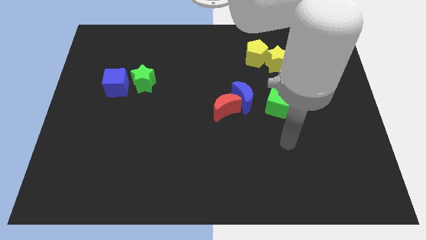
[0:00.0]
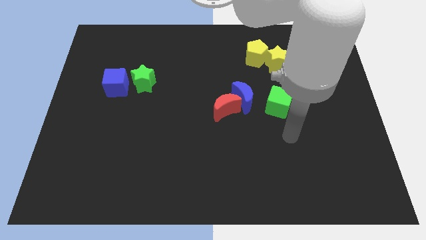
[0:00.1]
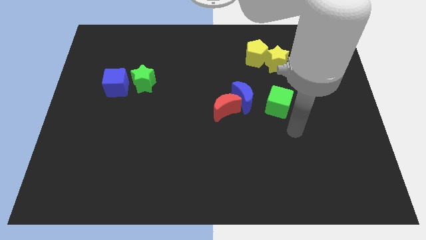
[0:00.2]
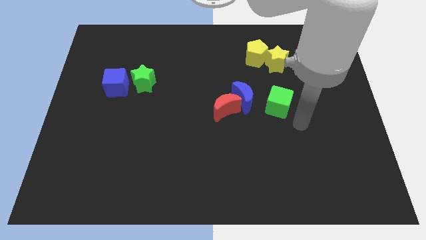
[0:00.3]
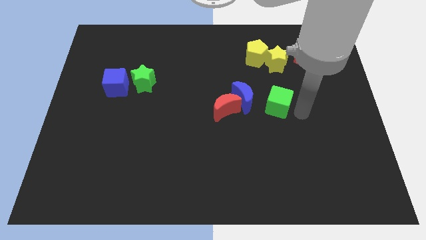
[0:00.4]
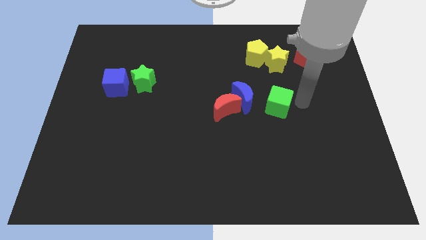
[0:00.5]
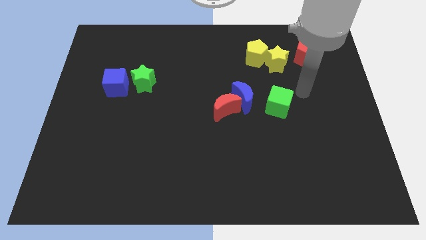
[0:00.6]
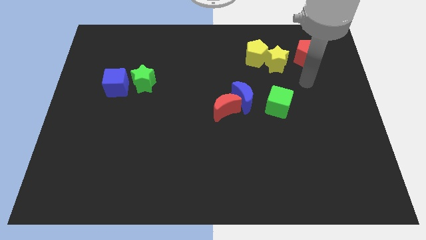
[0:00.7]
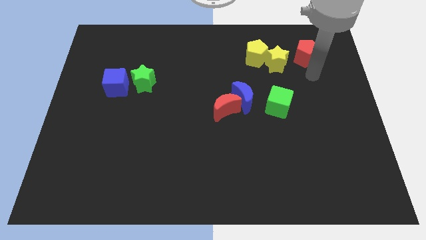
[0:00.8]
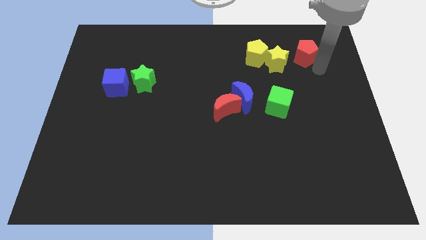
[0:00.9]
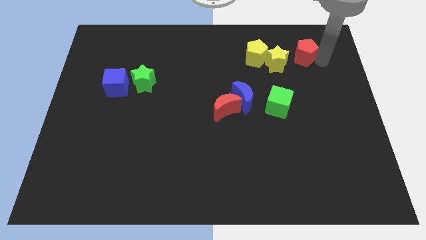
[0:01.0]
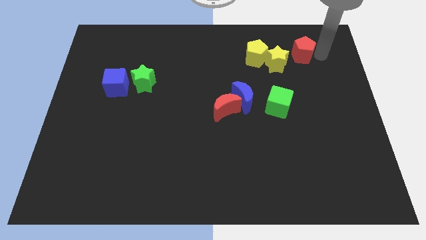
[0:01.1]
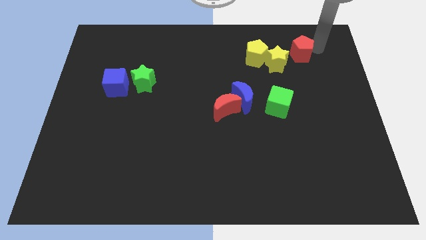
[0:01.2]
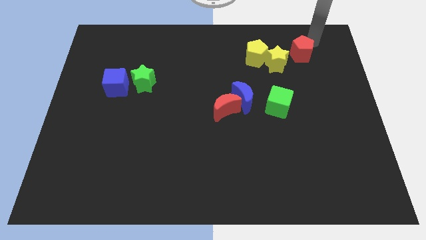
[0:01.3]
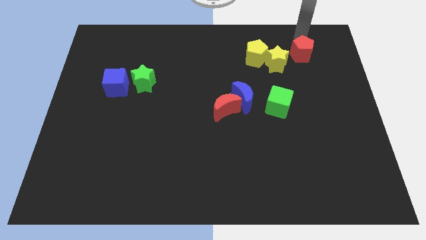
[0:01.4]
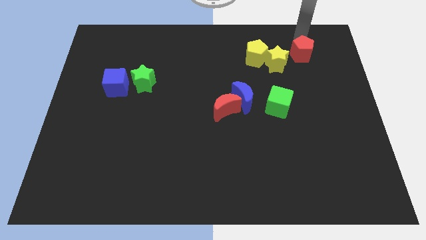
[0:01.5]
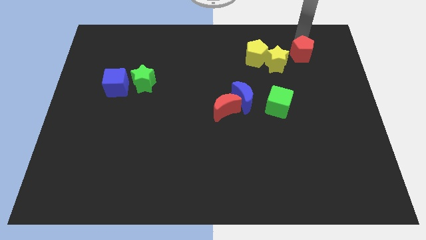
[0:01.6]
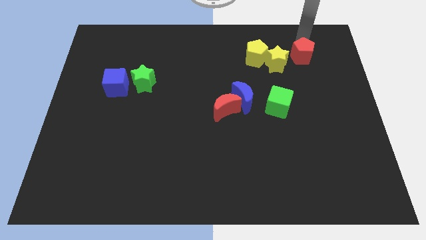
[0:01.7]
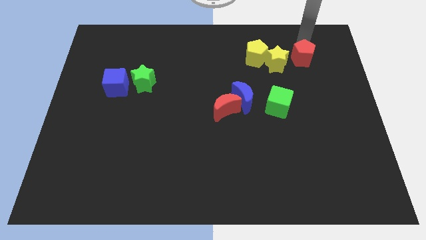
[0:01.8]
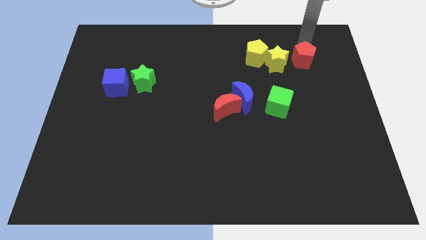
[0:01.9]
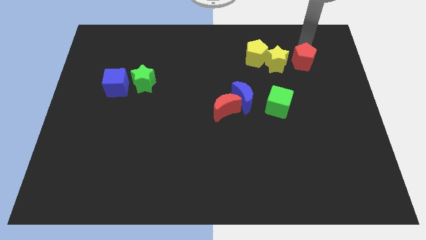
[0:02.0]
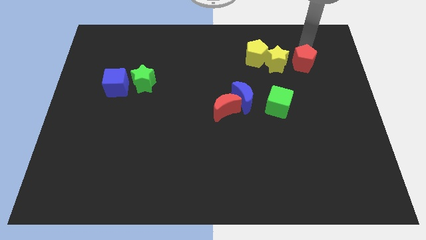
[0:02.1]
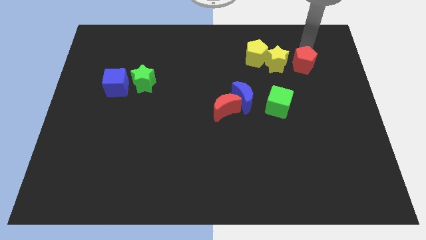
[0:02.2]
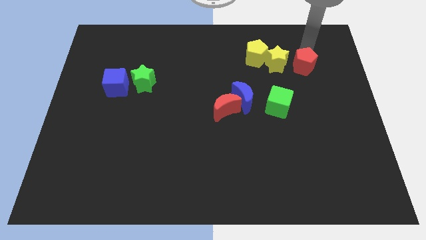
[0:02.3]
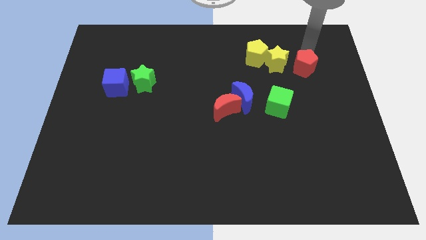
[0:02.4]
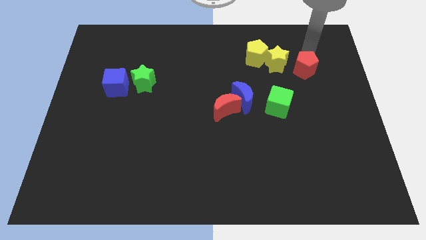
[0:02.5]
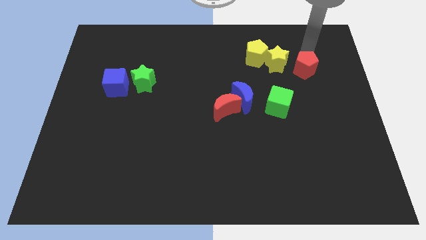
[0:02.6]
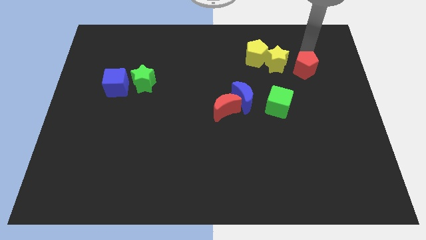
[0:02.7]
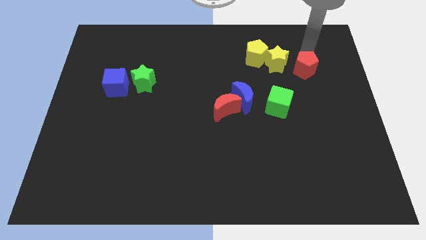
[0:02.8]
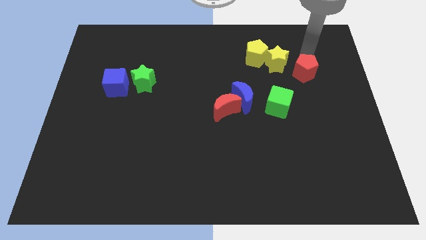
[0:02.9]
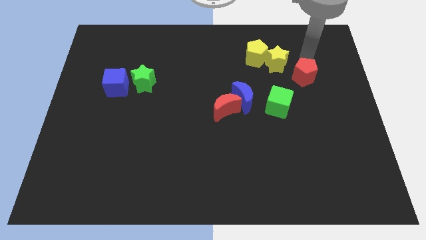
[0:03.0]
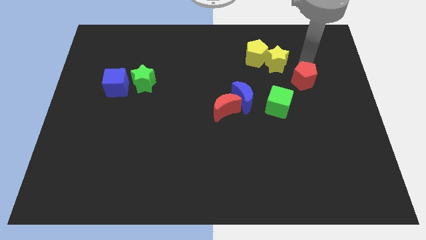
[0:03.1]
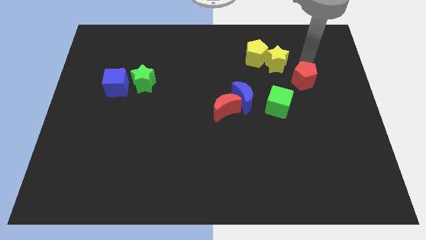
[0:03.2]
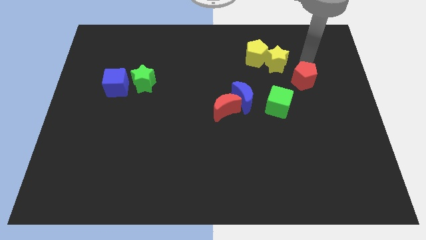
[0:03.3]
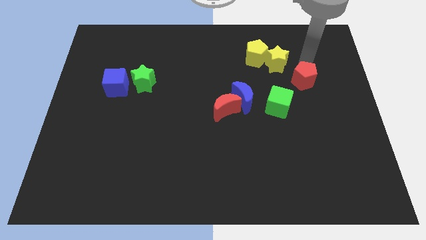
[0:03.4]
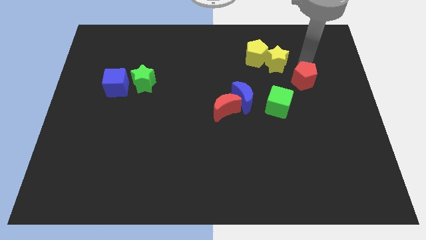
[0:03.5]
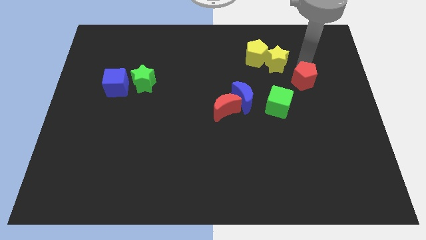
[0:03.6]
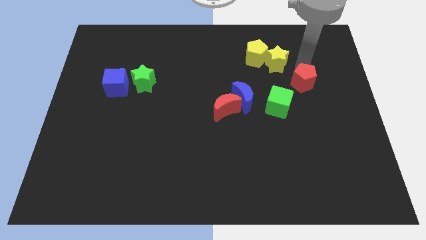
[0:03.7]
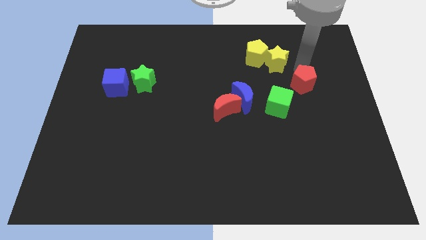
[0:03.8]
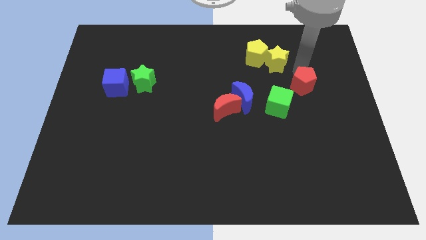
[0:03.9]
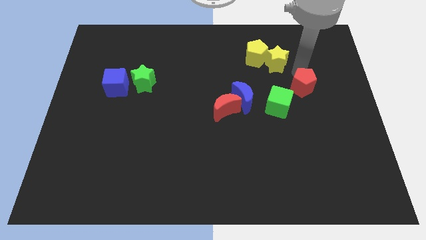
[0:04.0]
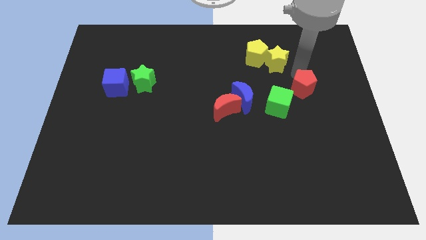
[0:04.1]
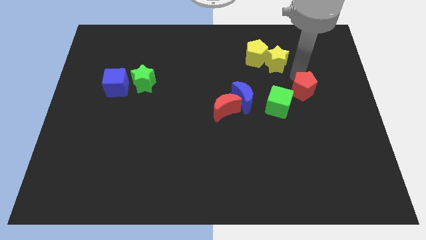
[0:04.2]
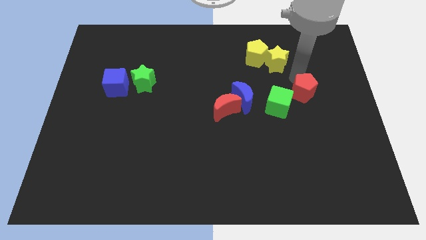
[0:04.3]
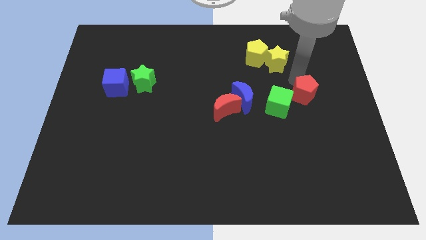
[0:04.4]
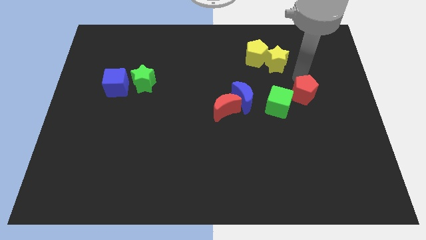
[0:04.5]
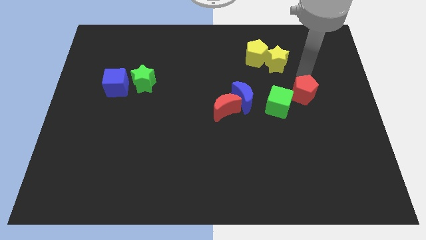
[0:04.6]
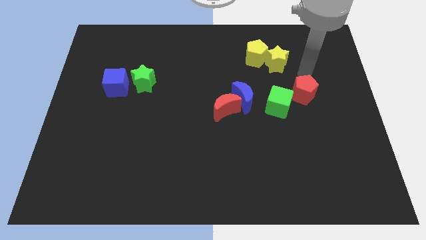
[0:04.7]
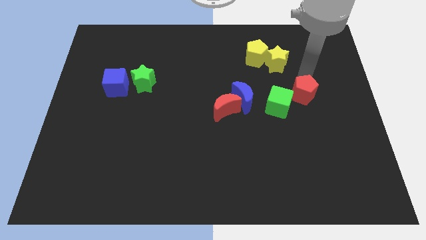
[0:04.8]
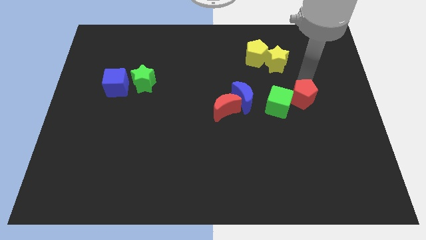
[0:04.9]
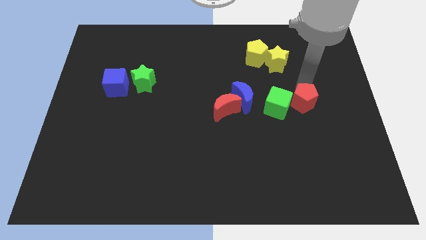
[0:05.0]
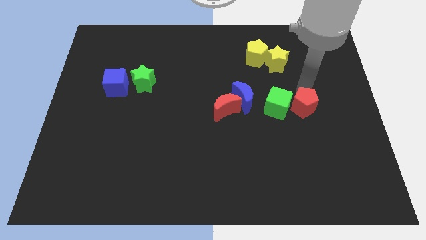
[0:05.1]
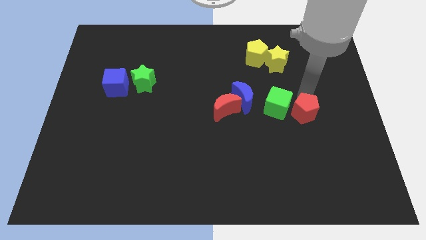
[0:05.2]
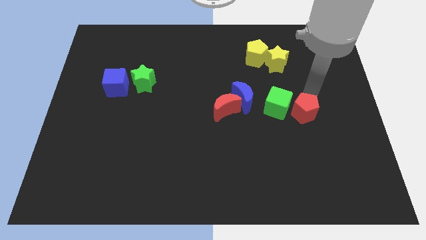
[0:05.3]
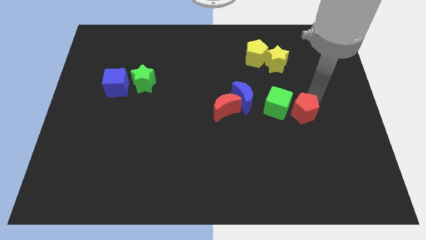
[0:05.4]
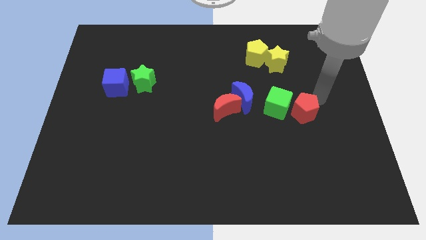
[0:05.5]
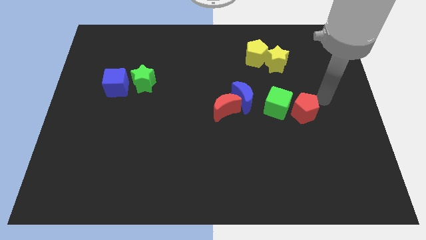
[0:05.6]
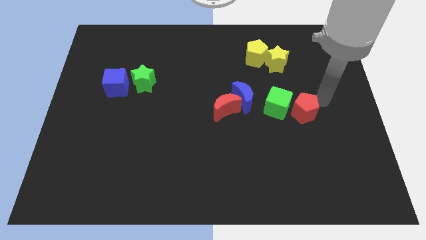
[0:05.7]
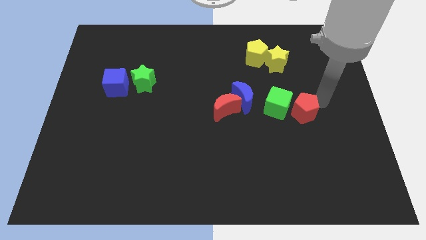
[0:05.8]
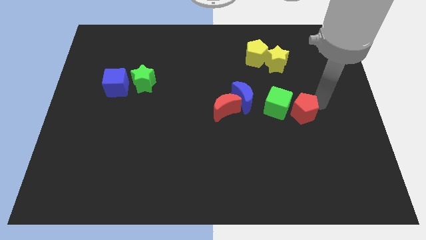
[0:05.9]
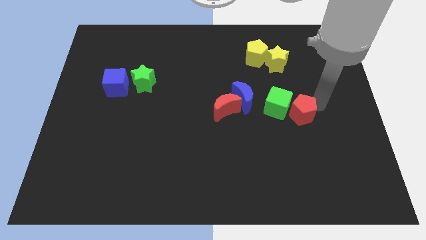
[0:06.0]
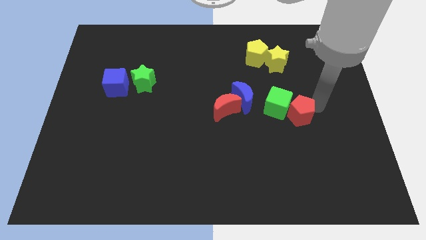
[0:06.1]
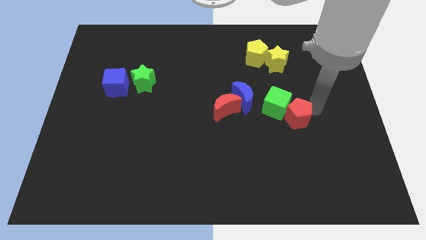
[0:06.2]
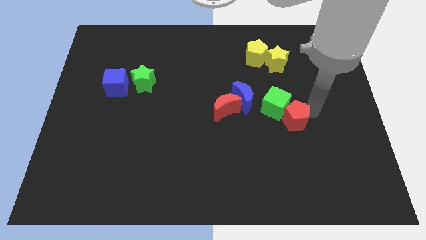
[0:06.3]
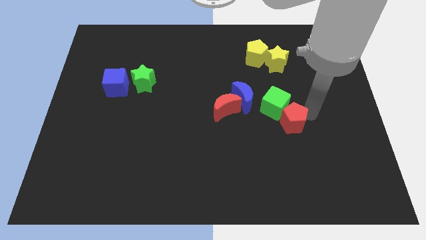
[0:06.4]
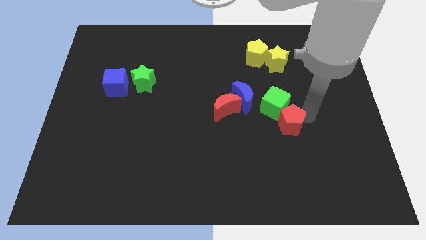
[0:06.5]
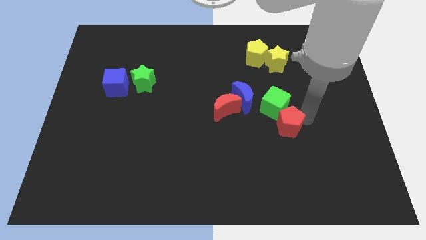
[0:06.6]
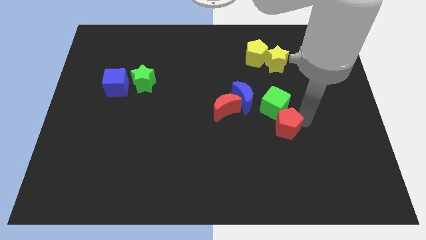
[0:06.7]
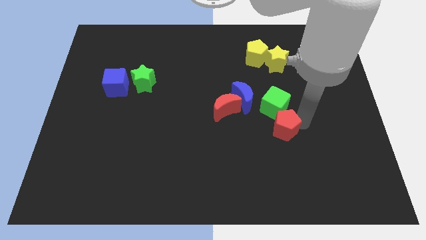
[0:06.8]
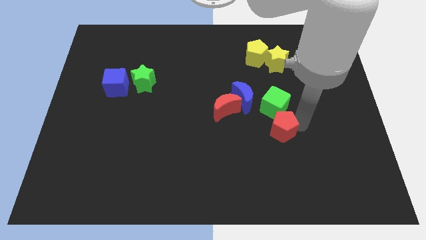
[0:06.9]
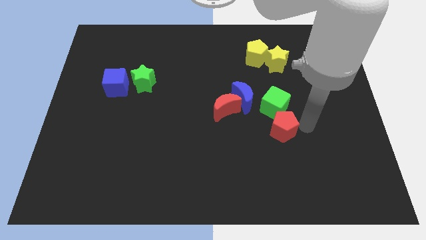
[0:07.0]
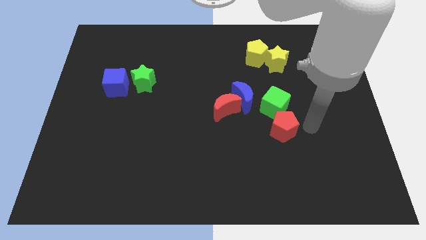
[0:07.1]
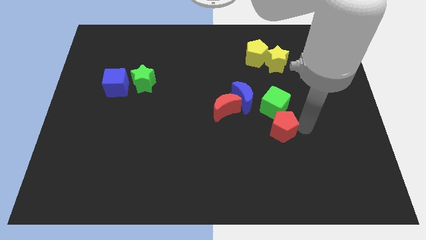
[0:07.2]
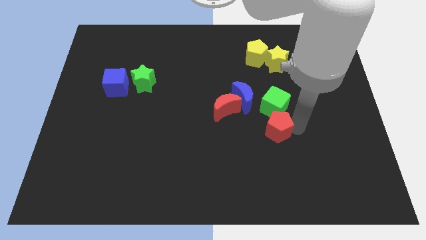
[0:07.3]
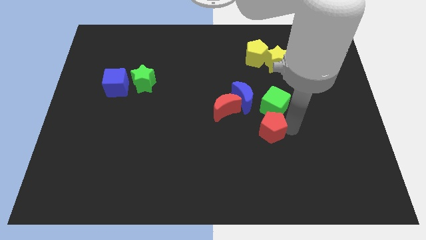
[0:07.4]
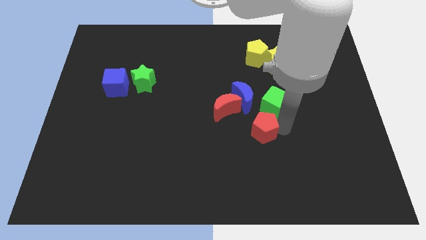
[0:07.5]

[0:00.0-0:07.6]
move the red pentagon to the bottom side of the blue moon
